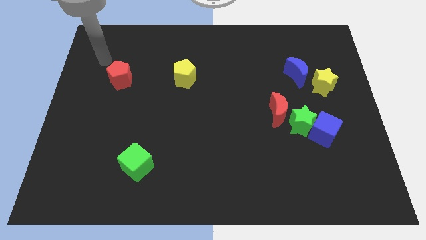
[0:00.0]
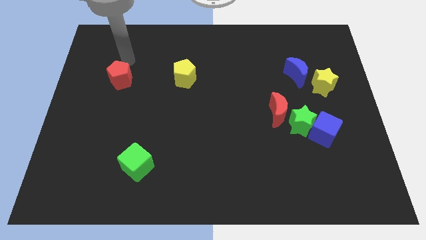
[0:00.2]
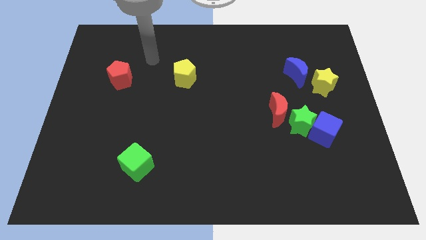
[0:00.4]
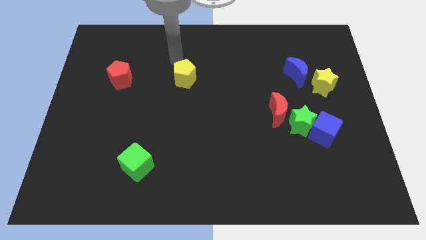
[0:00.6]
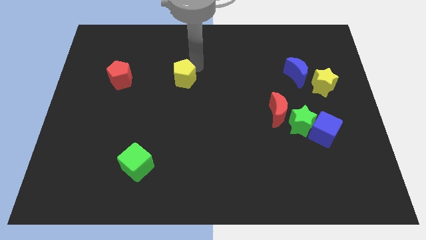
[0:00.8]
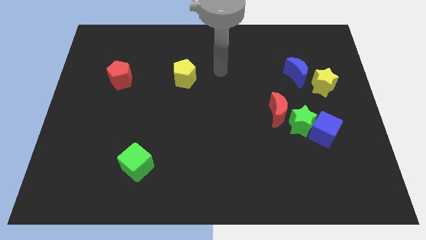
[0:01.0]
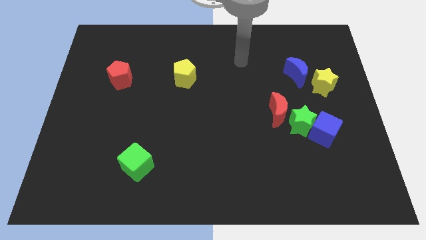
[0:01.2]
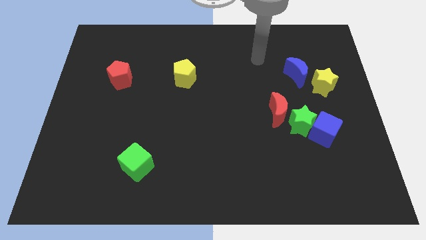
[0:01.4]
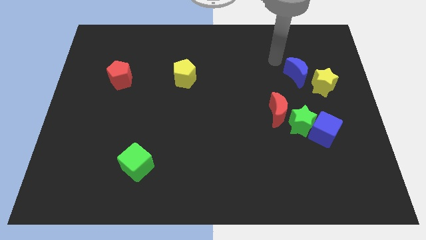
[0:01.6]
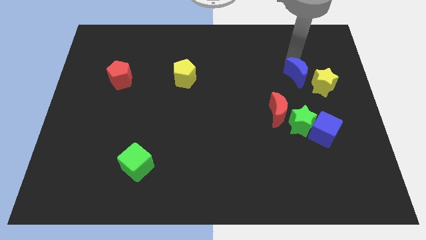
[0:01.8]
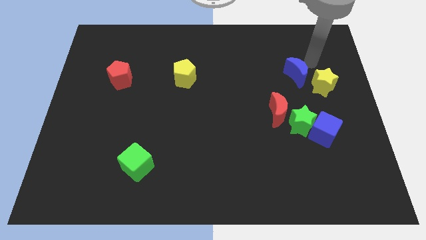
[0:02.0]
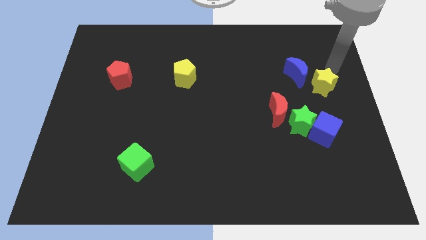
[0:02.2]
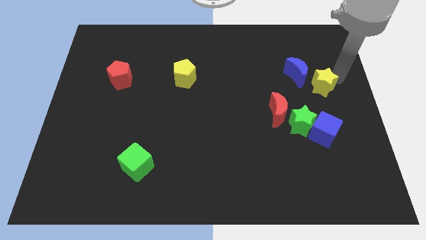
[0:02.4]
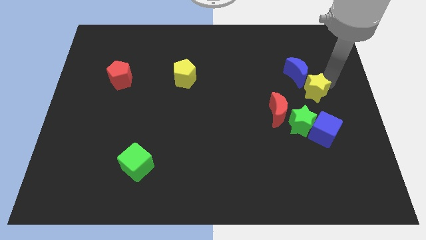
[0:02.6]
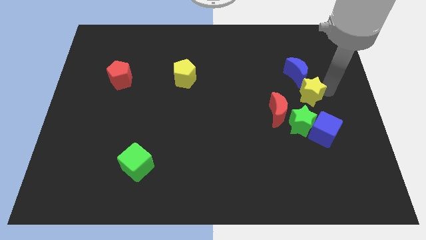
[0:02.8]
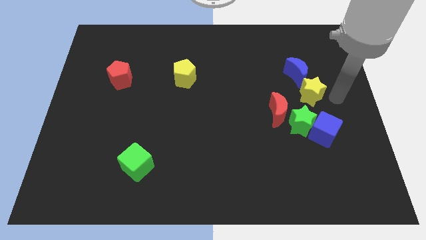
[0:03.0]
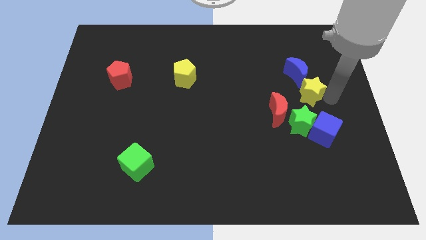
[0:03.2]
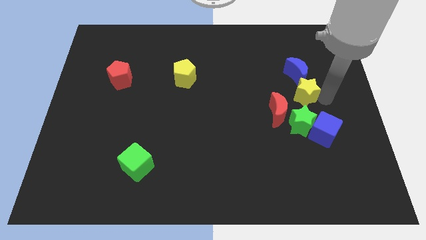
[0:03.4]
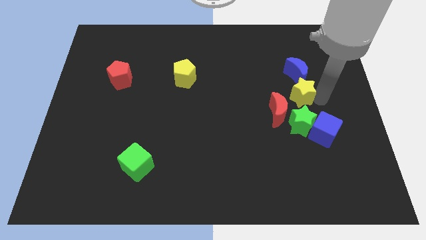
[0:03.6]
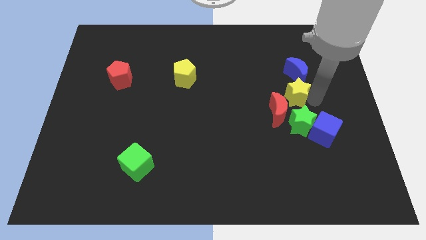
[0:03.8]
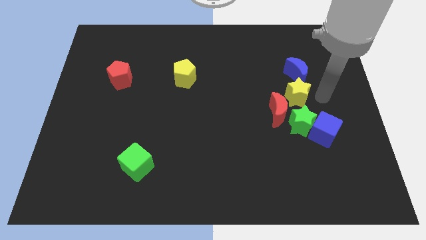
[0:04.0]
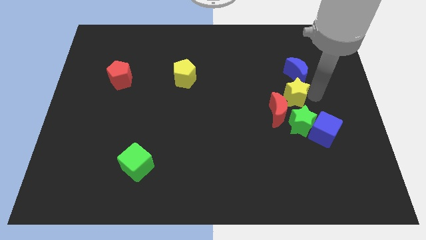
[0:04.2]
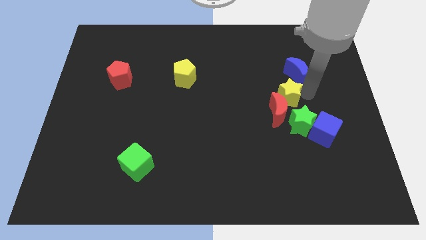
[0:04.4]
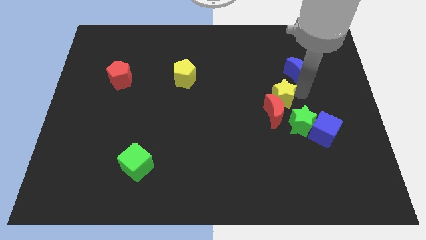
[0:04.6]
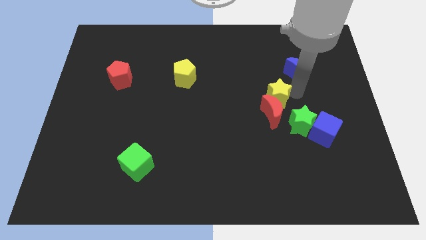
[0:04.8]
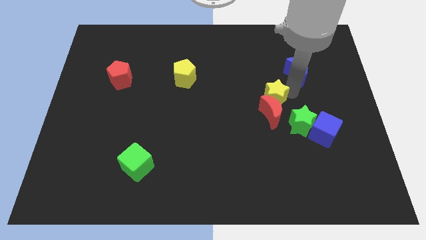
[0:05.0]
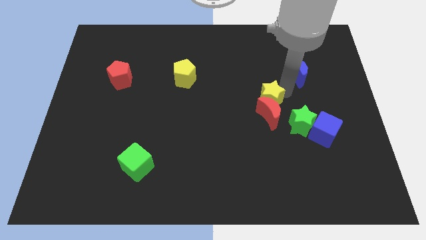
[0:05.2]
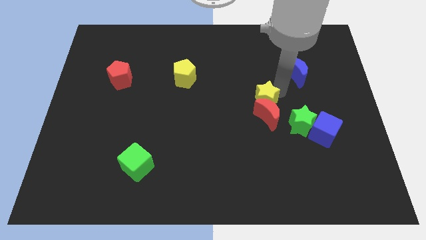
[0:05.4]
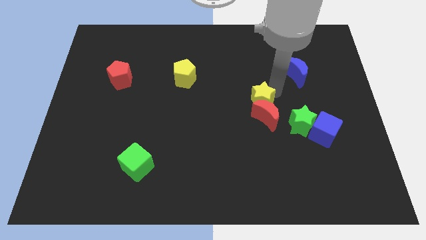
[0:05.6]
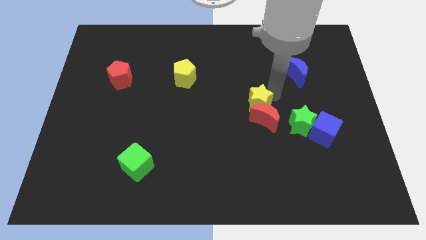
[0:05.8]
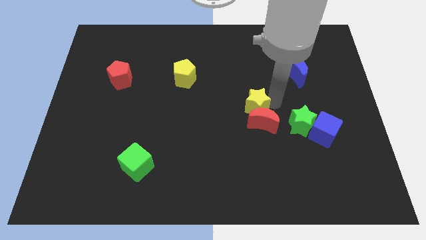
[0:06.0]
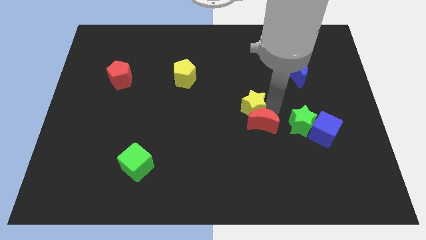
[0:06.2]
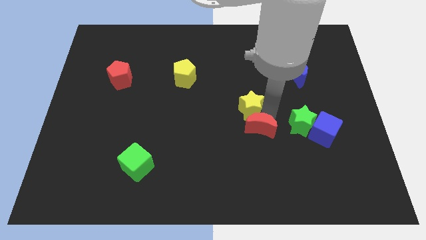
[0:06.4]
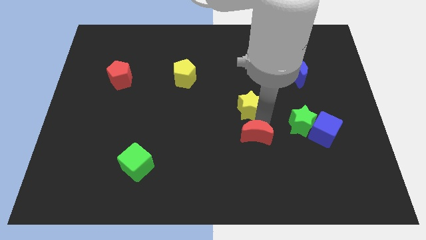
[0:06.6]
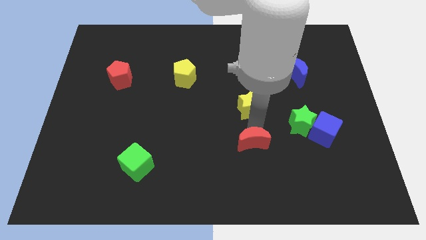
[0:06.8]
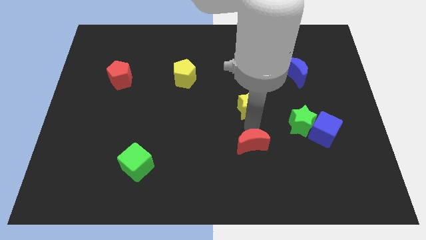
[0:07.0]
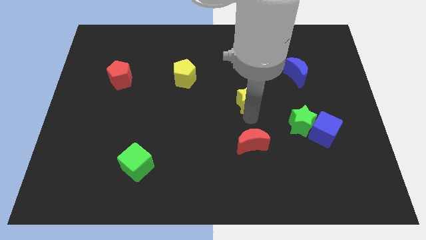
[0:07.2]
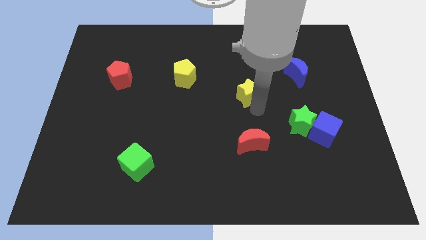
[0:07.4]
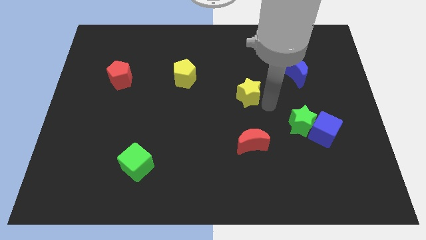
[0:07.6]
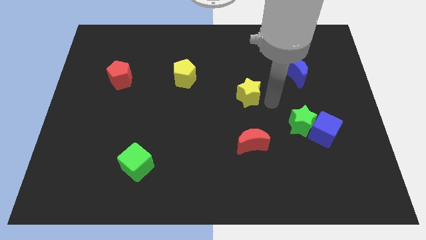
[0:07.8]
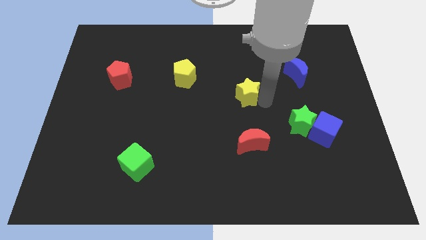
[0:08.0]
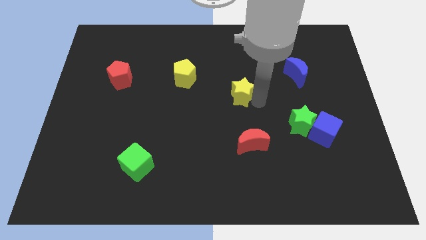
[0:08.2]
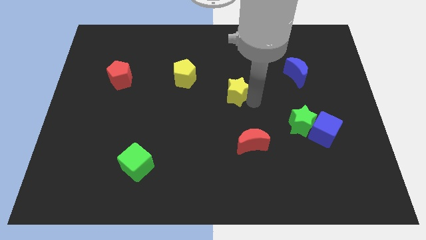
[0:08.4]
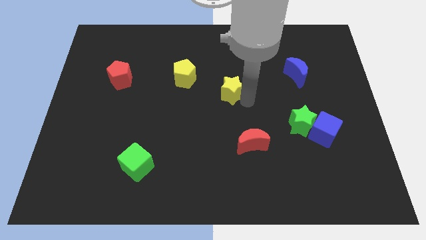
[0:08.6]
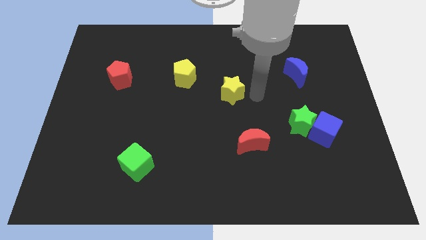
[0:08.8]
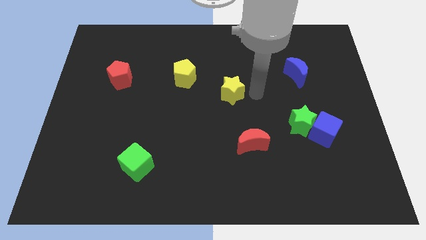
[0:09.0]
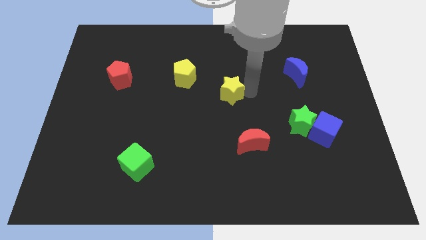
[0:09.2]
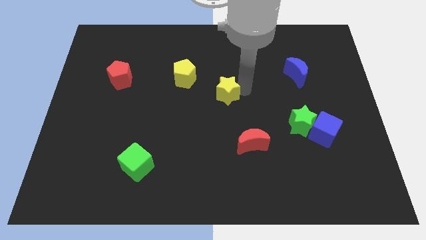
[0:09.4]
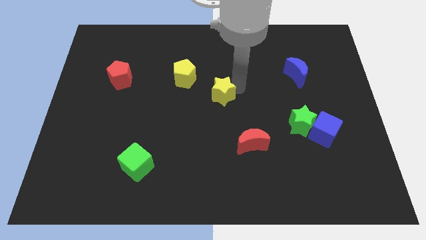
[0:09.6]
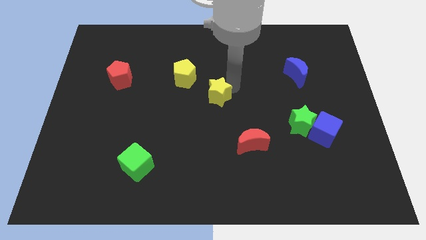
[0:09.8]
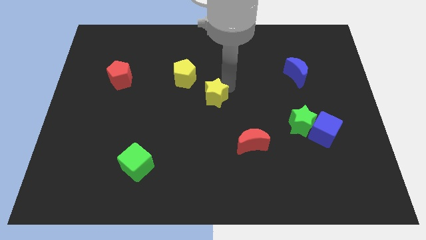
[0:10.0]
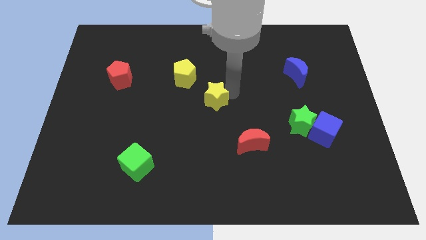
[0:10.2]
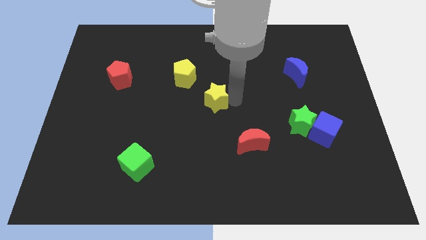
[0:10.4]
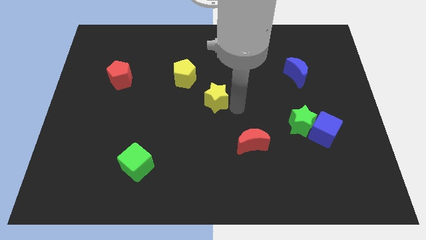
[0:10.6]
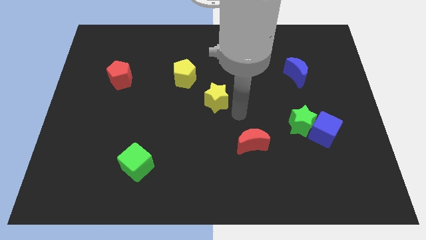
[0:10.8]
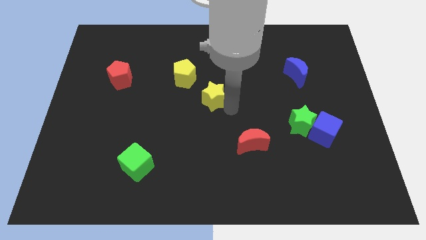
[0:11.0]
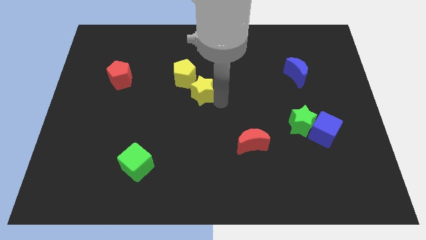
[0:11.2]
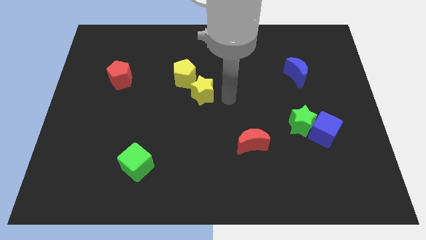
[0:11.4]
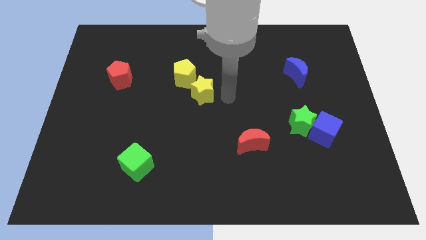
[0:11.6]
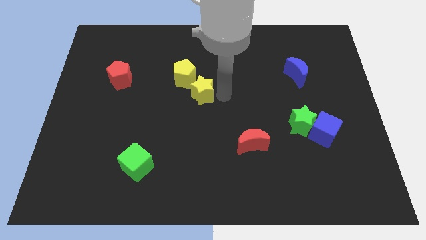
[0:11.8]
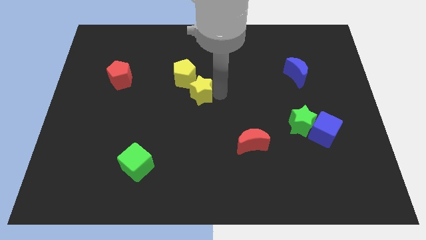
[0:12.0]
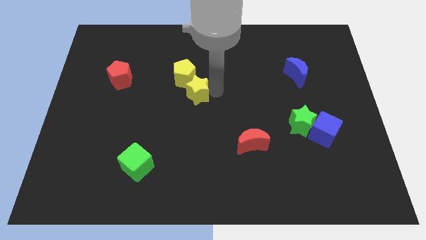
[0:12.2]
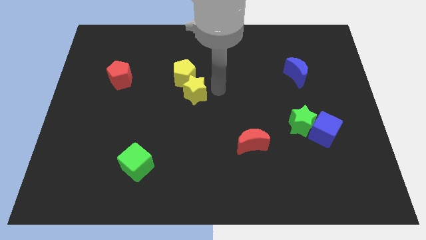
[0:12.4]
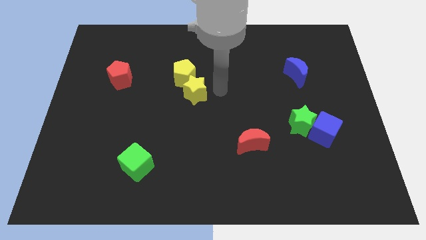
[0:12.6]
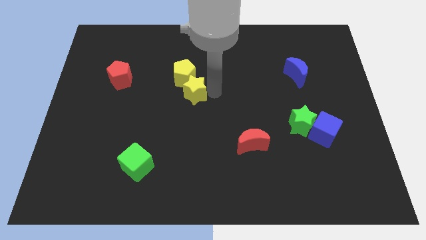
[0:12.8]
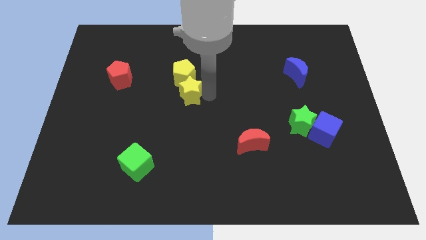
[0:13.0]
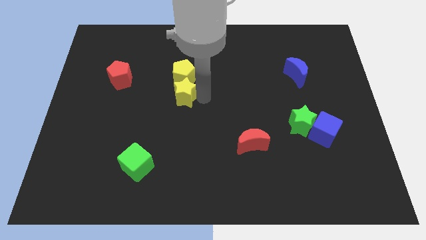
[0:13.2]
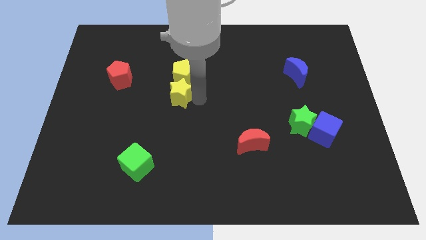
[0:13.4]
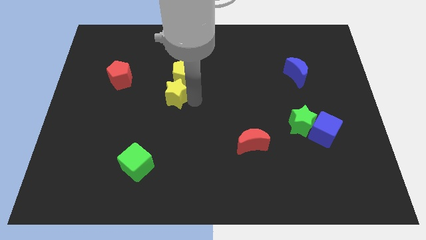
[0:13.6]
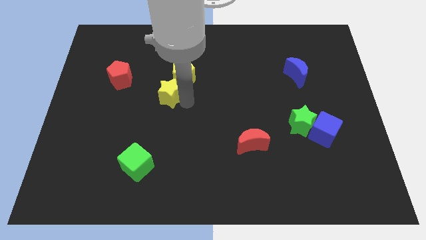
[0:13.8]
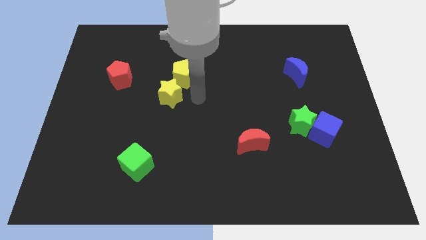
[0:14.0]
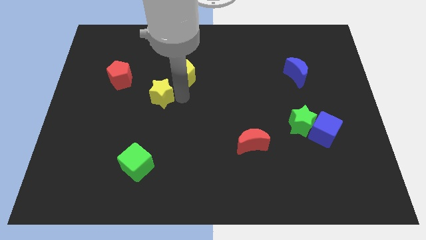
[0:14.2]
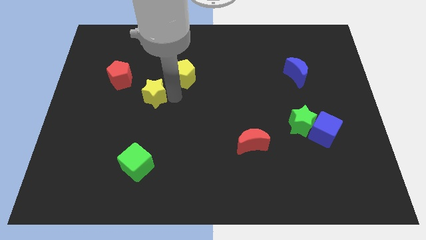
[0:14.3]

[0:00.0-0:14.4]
move the yellow star to the bottom right side of the red pentagon
